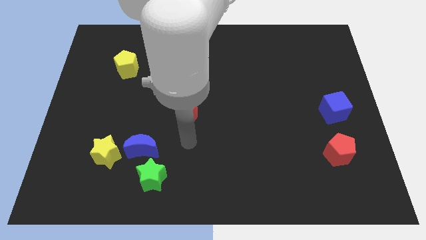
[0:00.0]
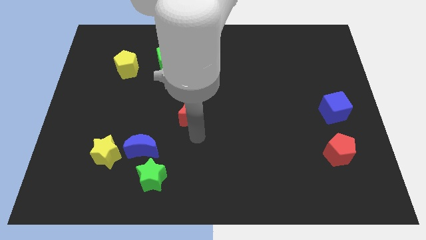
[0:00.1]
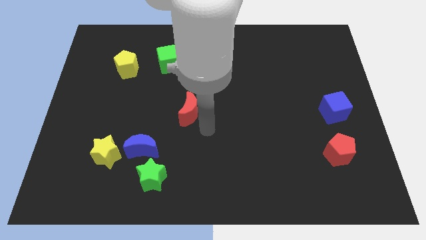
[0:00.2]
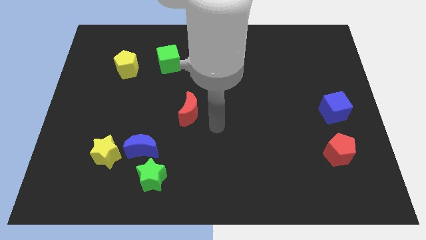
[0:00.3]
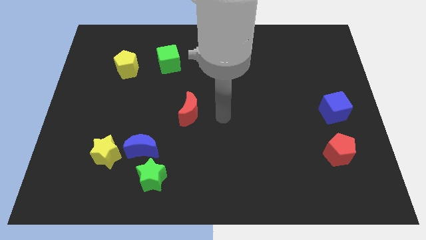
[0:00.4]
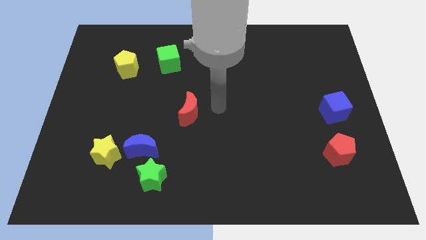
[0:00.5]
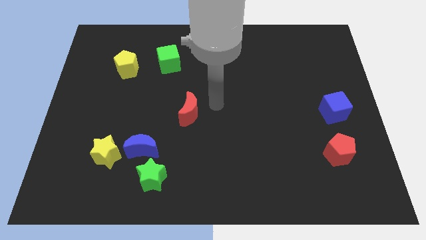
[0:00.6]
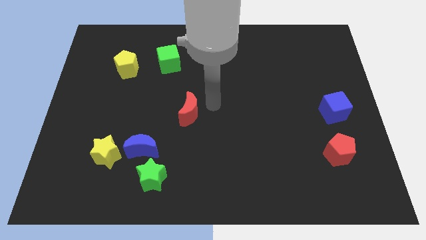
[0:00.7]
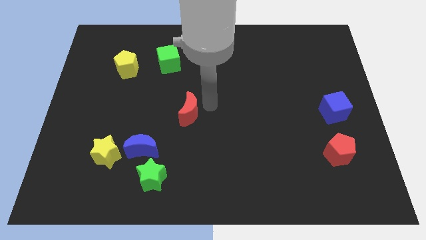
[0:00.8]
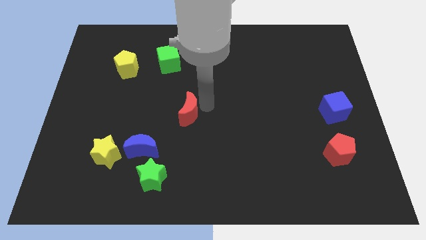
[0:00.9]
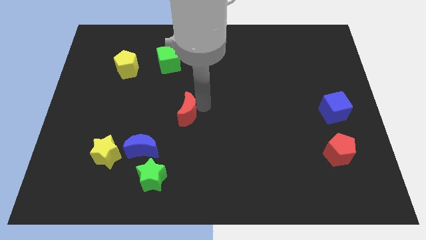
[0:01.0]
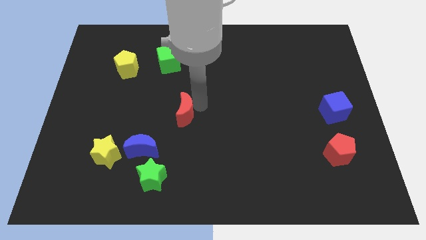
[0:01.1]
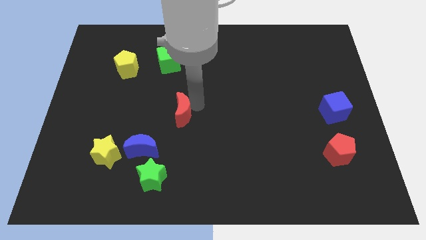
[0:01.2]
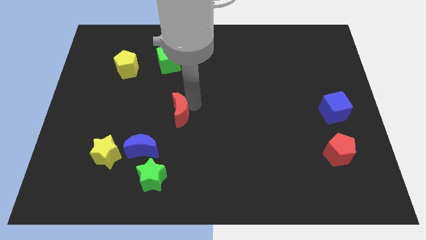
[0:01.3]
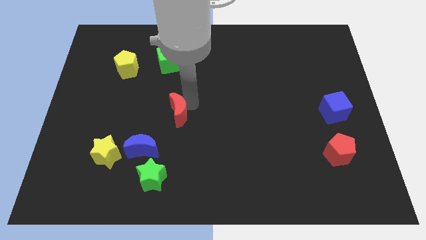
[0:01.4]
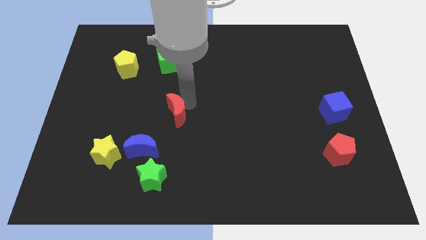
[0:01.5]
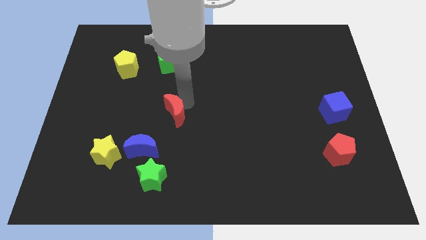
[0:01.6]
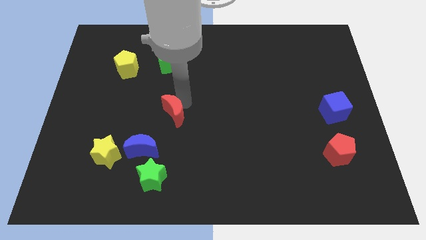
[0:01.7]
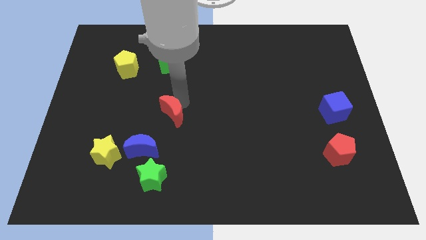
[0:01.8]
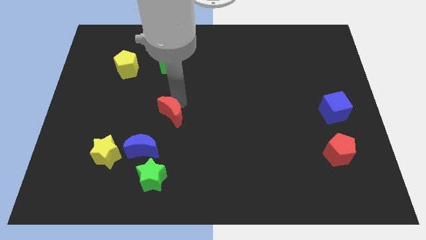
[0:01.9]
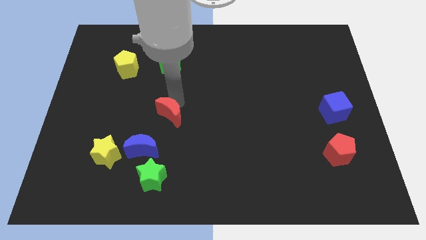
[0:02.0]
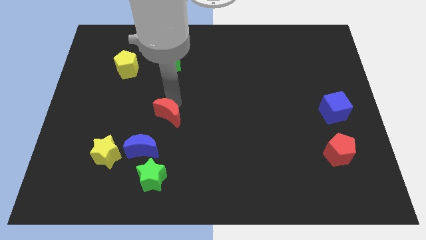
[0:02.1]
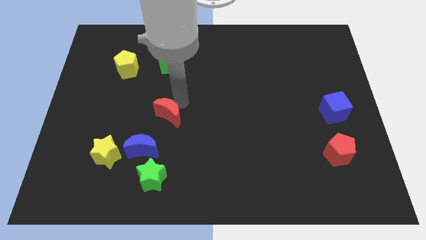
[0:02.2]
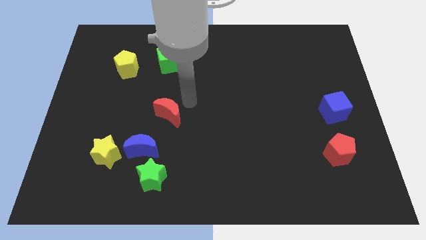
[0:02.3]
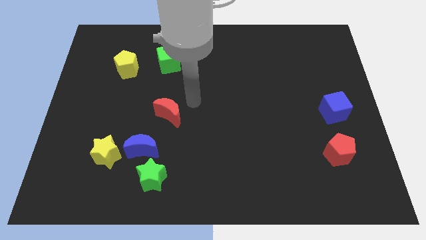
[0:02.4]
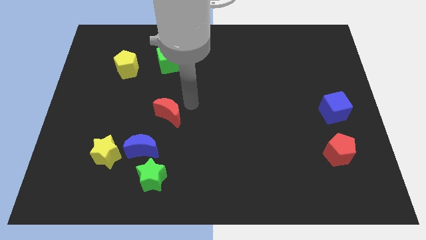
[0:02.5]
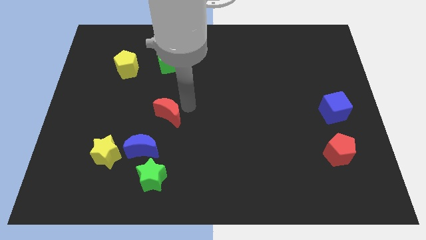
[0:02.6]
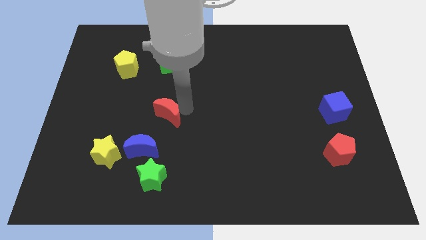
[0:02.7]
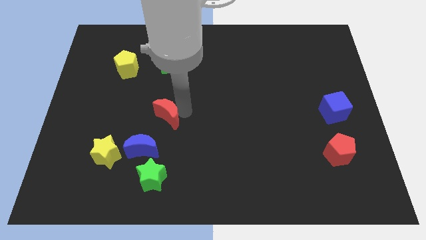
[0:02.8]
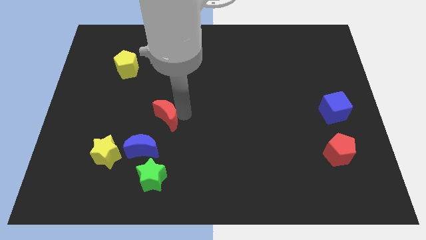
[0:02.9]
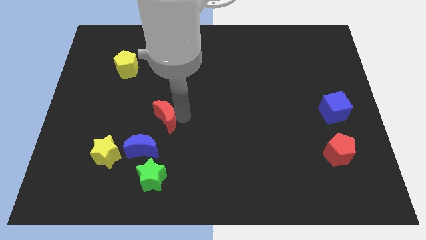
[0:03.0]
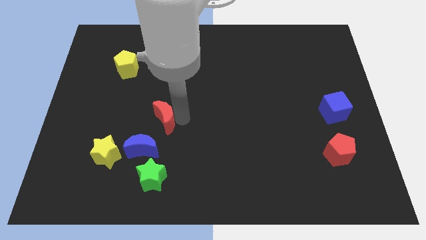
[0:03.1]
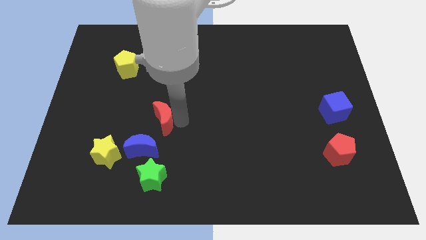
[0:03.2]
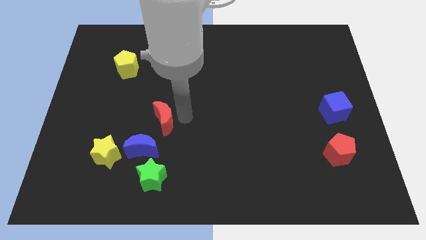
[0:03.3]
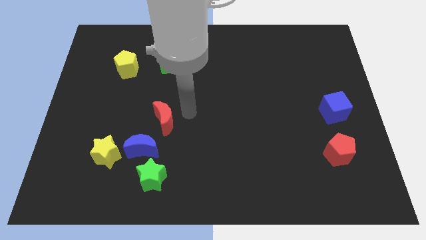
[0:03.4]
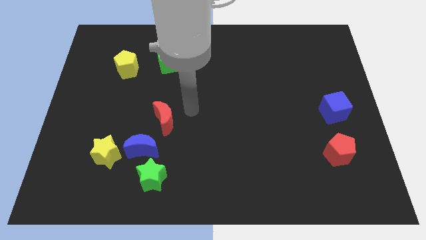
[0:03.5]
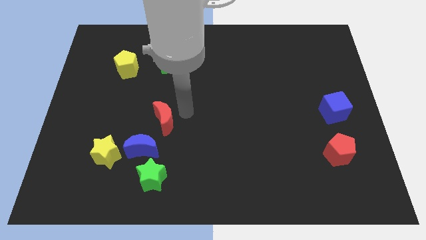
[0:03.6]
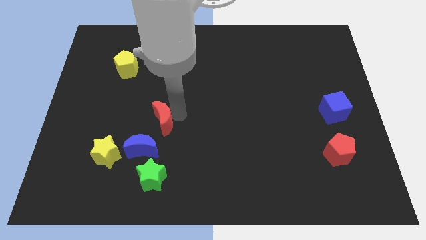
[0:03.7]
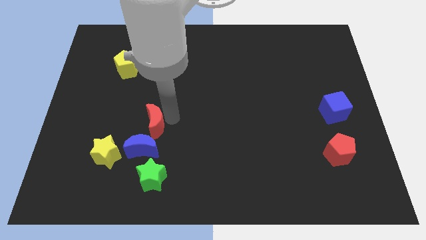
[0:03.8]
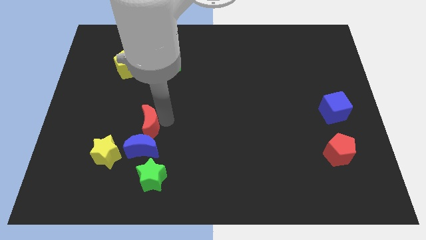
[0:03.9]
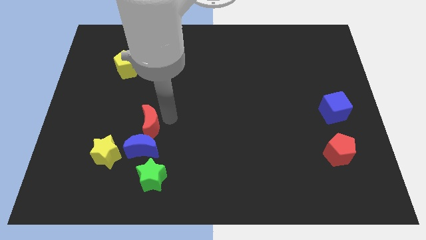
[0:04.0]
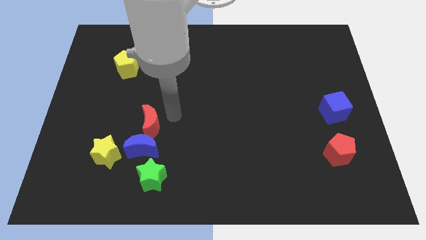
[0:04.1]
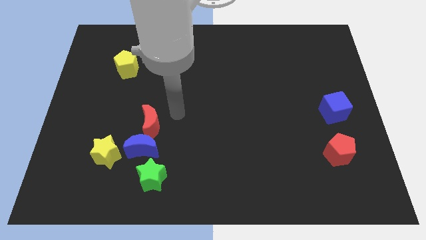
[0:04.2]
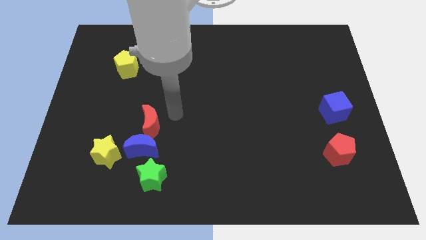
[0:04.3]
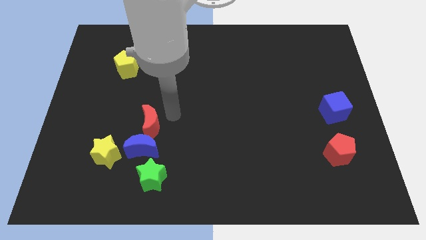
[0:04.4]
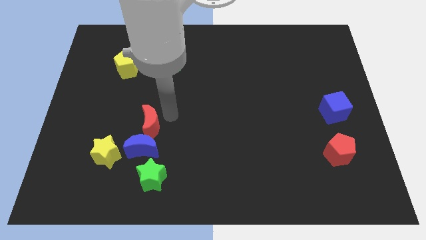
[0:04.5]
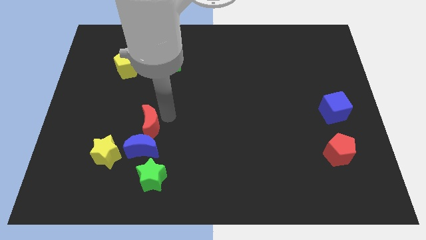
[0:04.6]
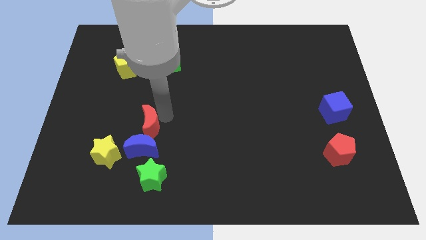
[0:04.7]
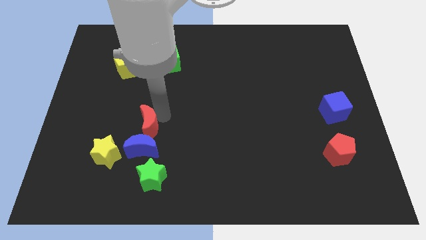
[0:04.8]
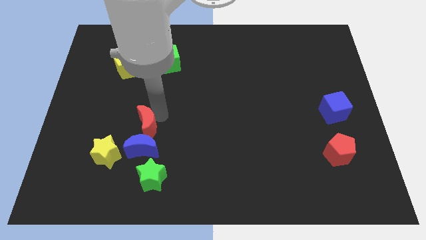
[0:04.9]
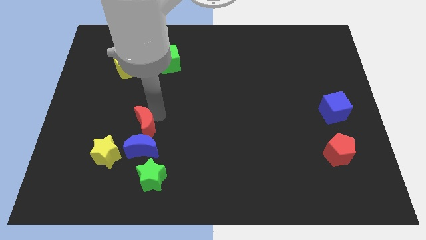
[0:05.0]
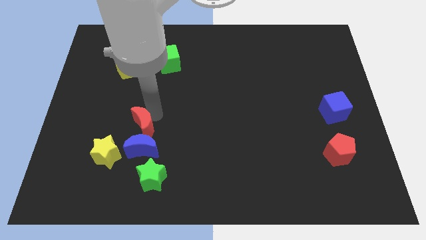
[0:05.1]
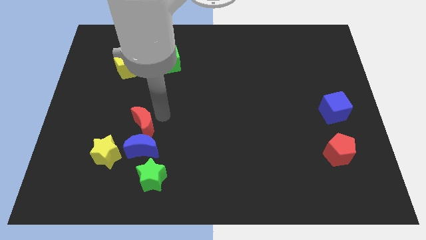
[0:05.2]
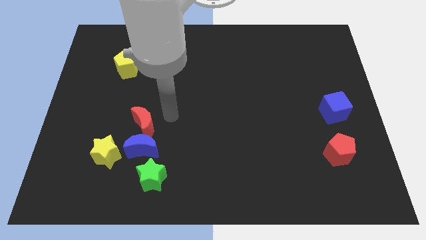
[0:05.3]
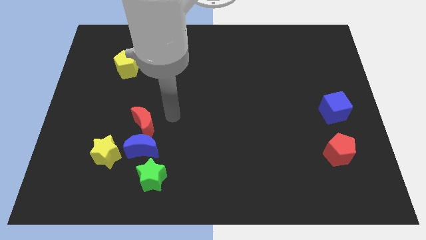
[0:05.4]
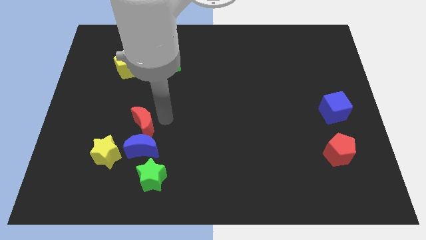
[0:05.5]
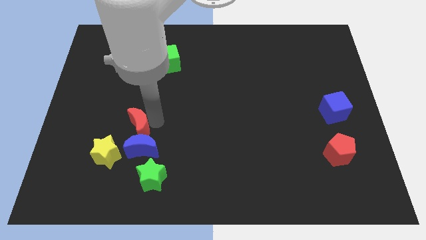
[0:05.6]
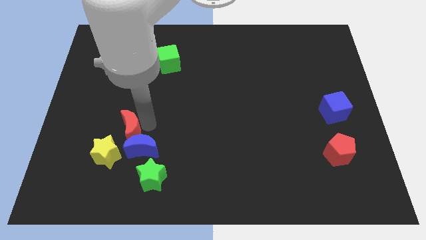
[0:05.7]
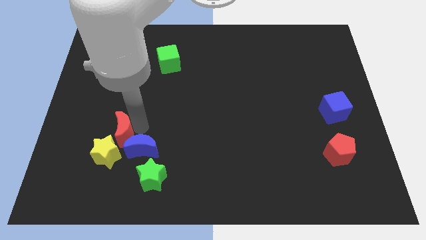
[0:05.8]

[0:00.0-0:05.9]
move the red moon left of the blue moon
